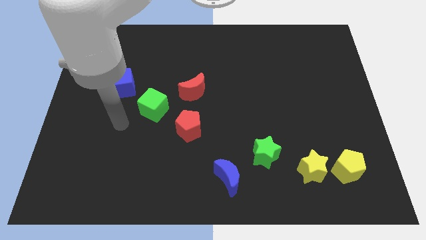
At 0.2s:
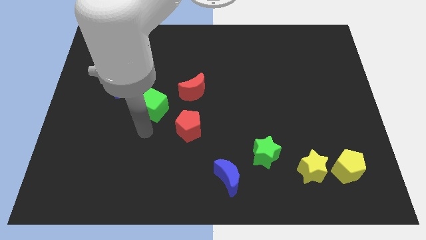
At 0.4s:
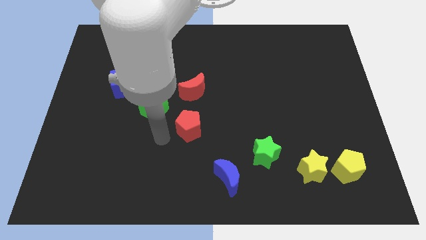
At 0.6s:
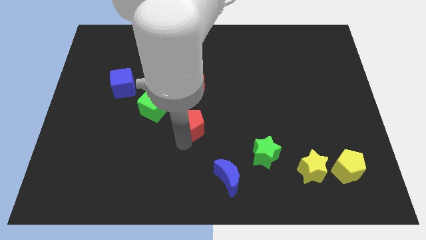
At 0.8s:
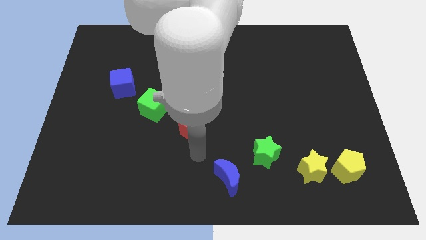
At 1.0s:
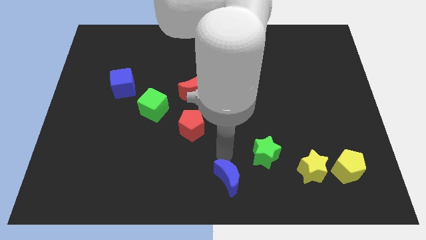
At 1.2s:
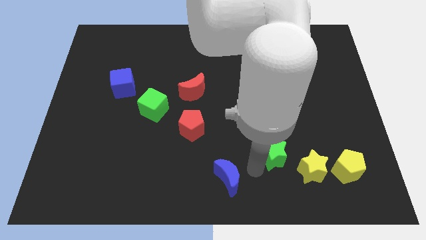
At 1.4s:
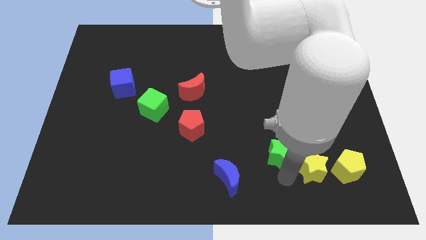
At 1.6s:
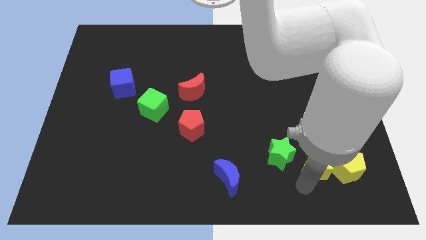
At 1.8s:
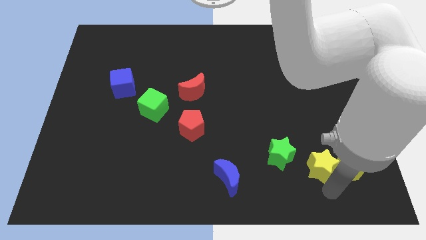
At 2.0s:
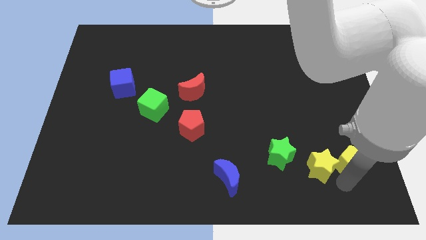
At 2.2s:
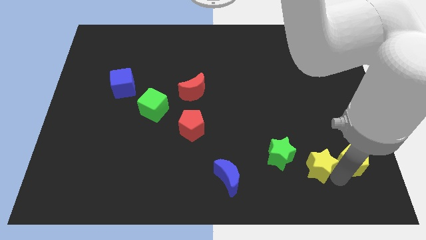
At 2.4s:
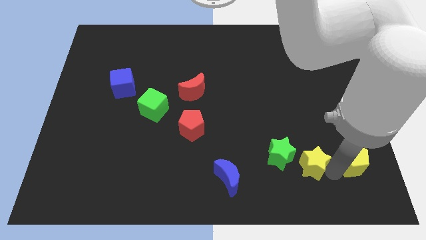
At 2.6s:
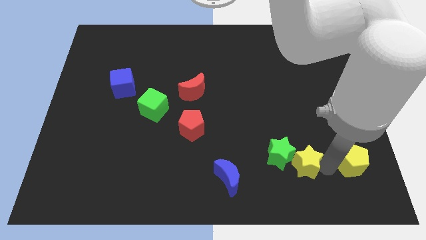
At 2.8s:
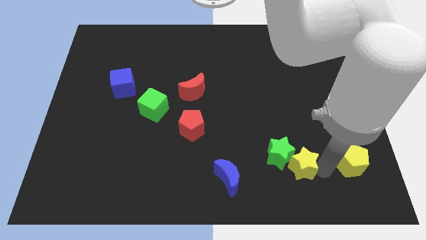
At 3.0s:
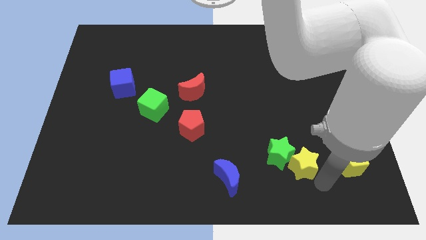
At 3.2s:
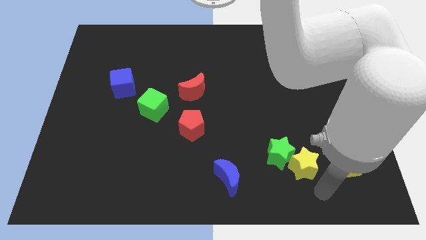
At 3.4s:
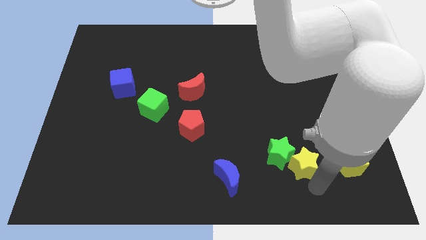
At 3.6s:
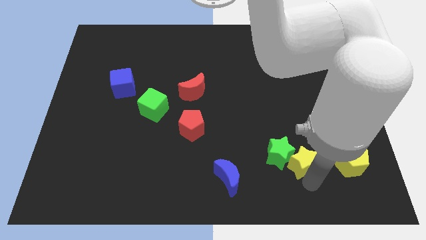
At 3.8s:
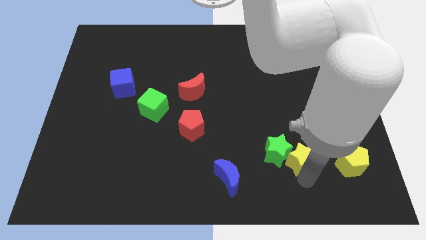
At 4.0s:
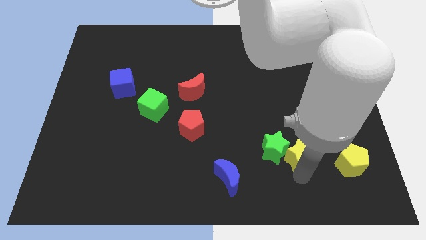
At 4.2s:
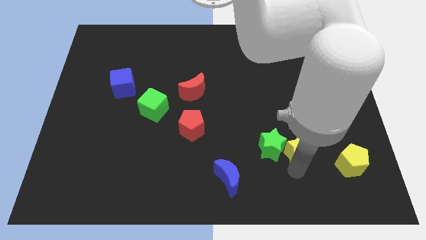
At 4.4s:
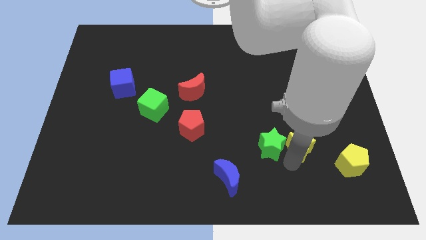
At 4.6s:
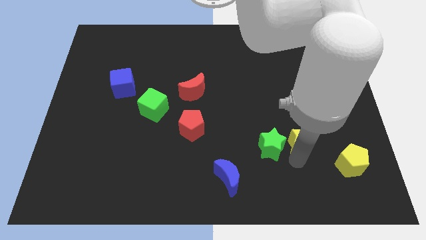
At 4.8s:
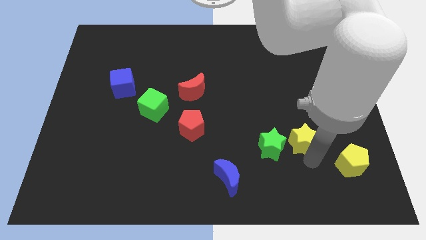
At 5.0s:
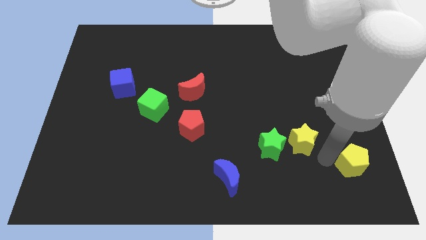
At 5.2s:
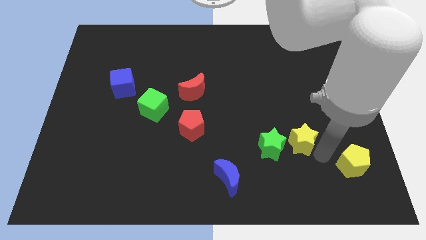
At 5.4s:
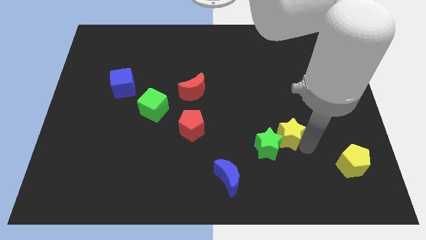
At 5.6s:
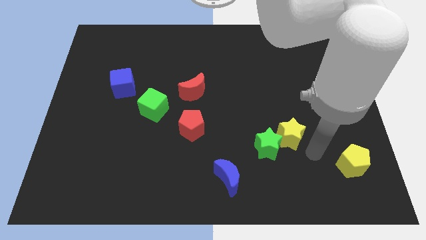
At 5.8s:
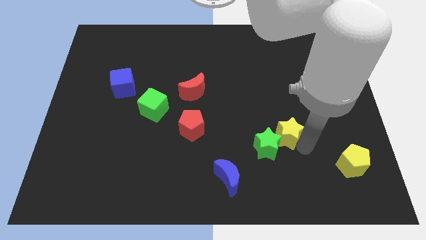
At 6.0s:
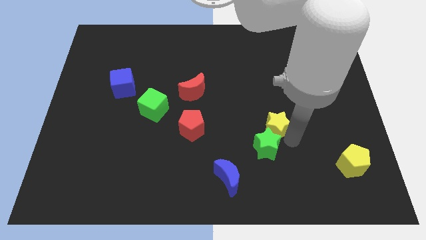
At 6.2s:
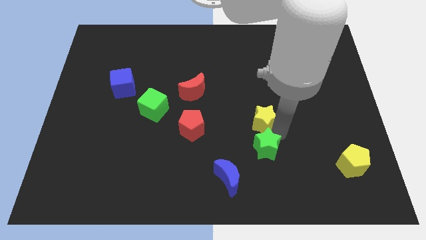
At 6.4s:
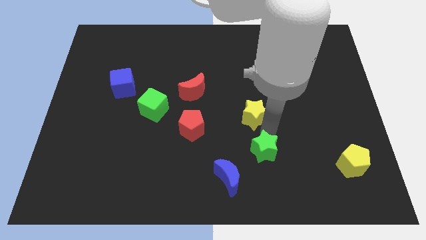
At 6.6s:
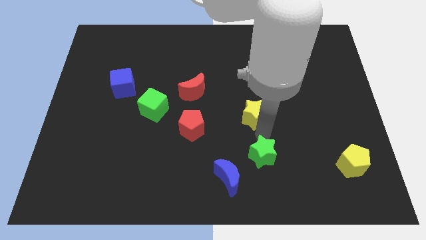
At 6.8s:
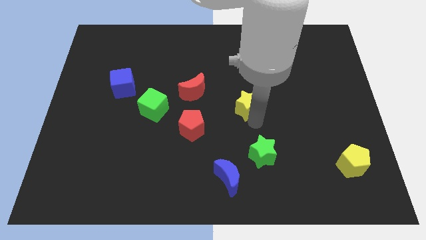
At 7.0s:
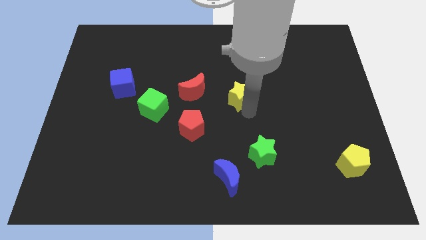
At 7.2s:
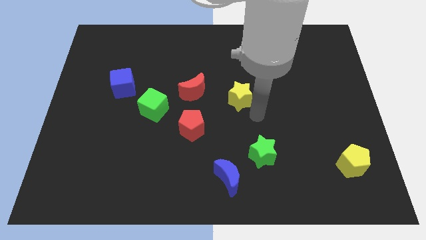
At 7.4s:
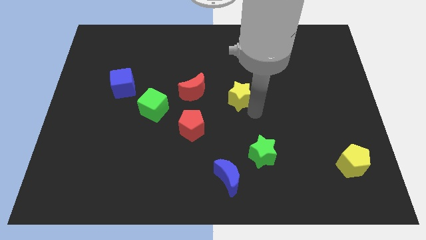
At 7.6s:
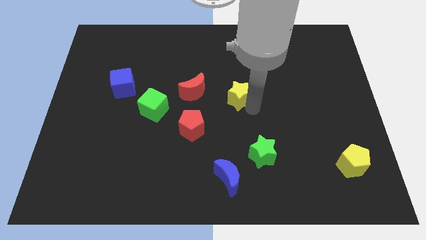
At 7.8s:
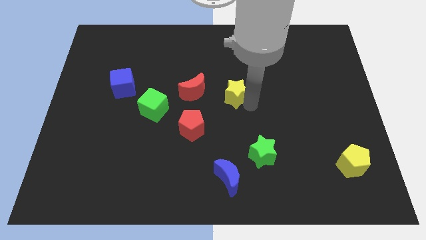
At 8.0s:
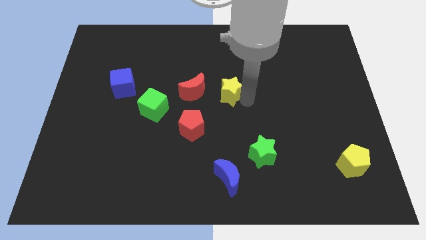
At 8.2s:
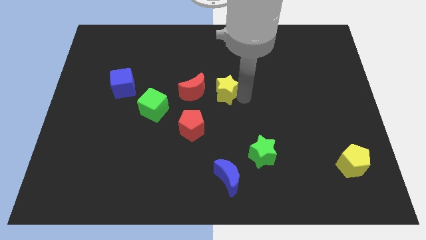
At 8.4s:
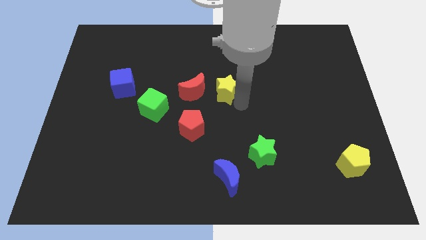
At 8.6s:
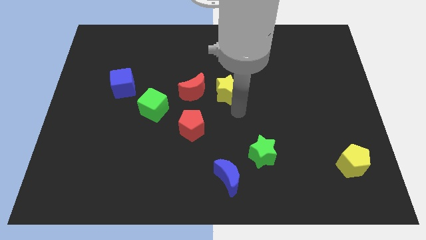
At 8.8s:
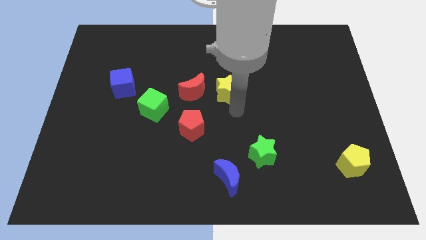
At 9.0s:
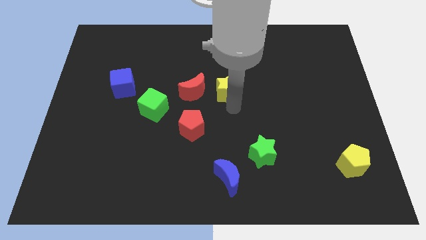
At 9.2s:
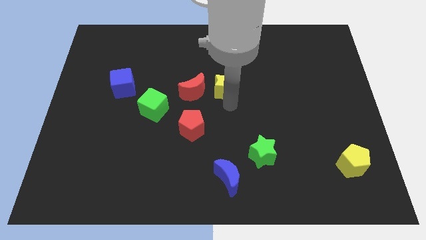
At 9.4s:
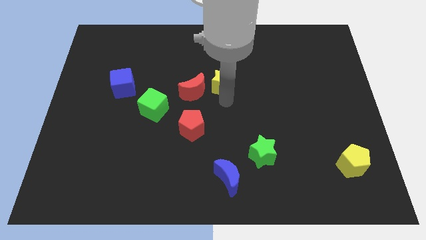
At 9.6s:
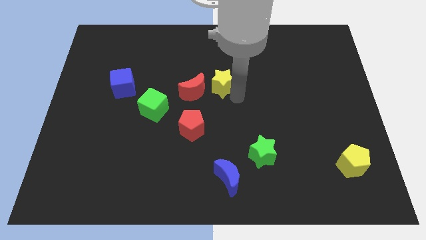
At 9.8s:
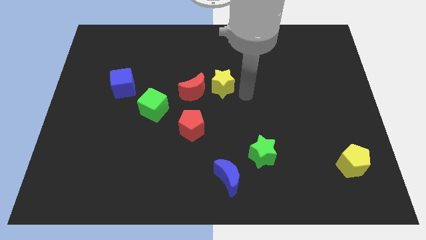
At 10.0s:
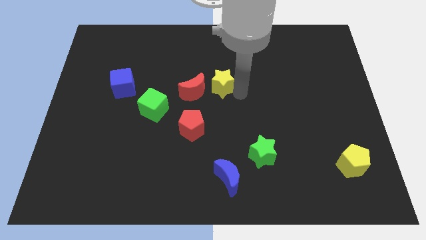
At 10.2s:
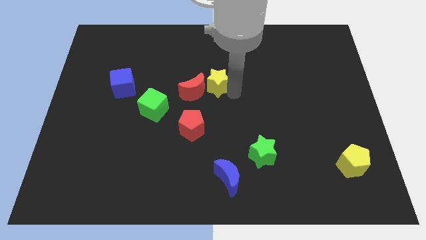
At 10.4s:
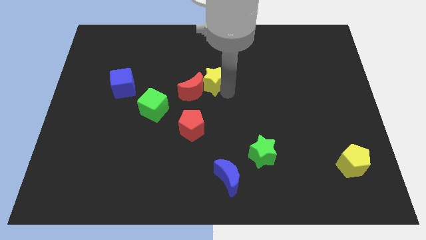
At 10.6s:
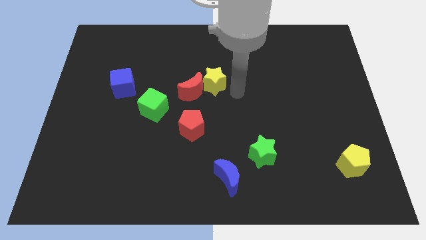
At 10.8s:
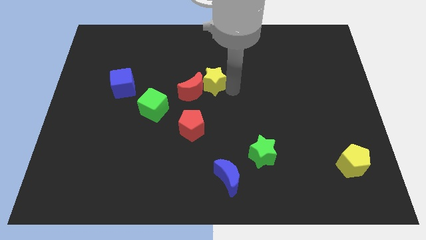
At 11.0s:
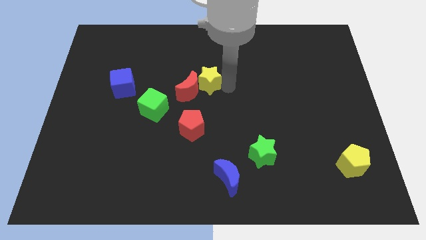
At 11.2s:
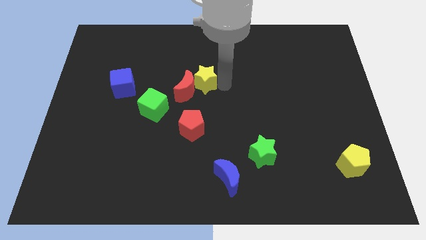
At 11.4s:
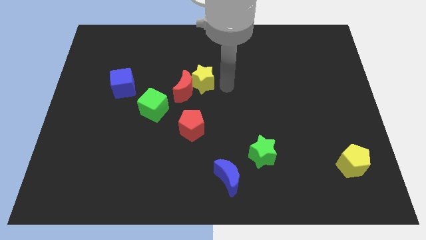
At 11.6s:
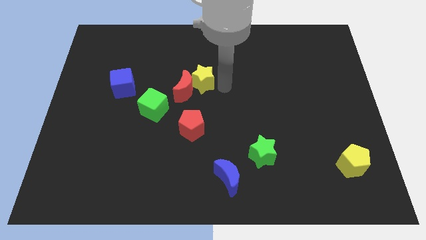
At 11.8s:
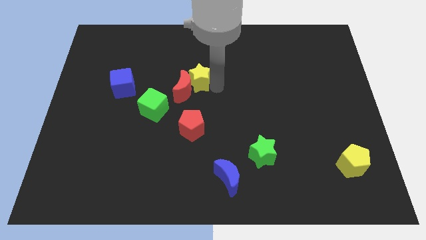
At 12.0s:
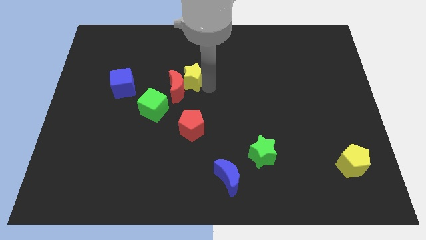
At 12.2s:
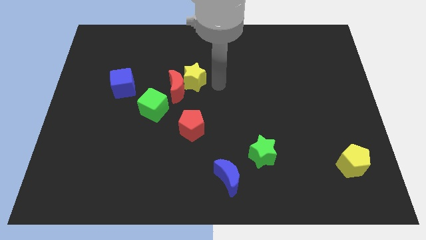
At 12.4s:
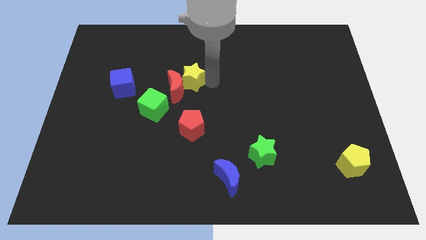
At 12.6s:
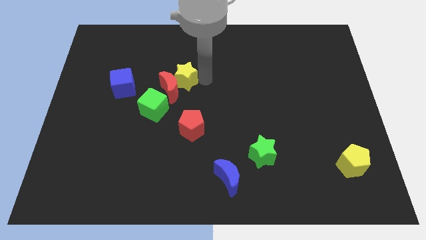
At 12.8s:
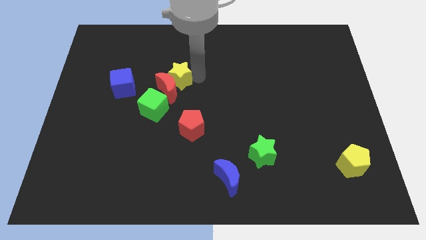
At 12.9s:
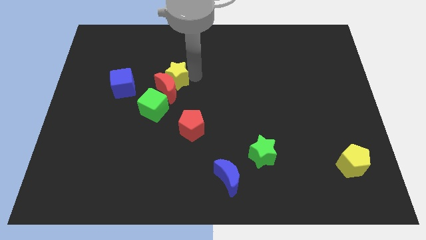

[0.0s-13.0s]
slide the yellow star to the top left side of the red moon
